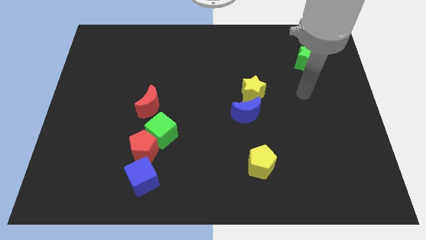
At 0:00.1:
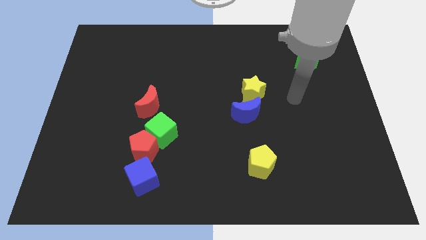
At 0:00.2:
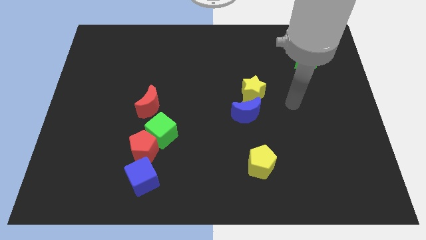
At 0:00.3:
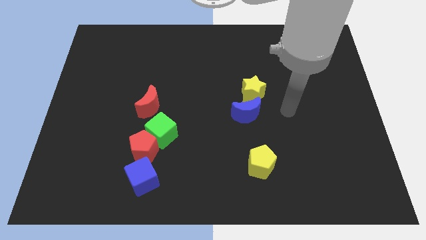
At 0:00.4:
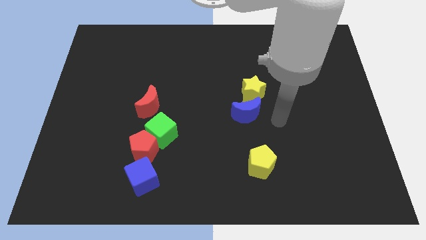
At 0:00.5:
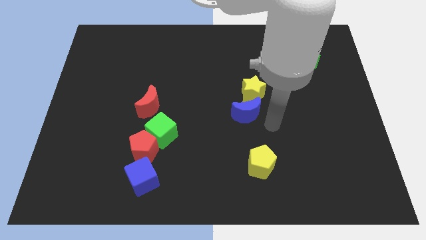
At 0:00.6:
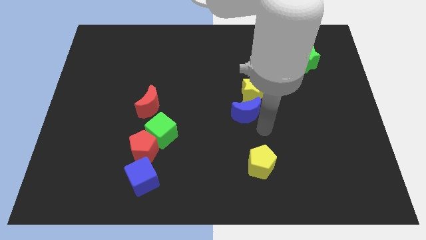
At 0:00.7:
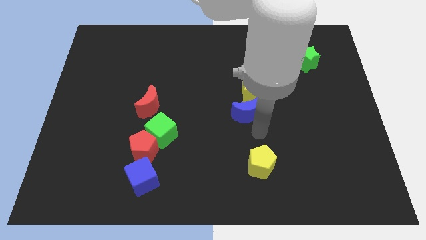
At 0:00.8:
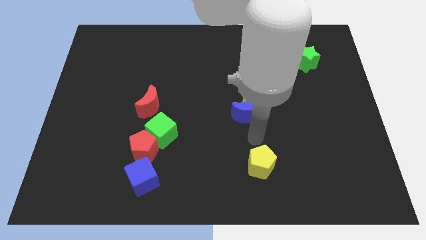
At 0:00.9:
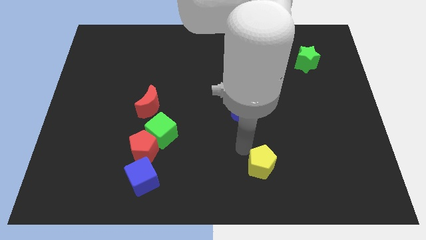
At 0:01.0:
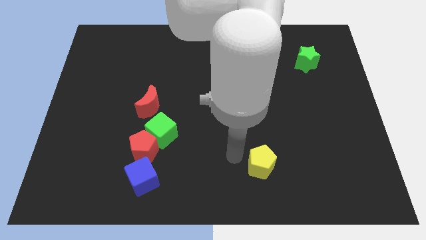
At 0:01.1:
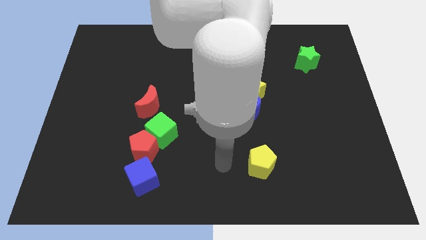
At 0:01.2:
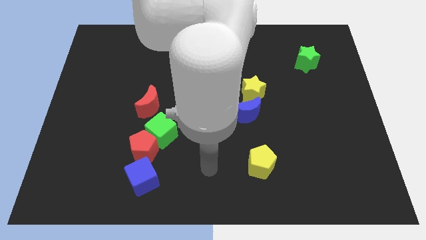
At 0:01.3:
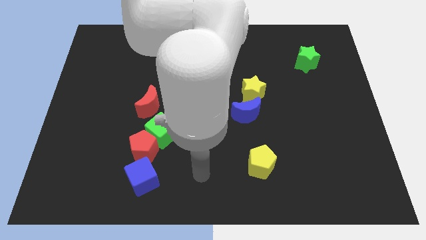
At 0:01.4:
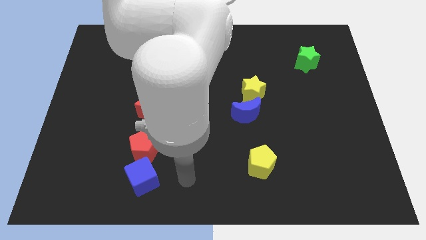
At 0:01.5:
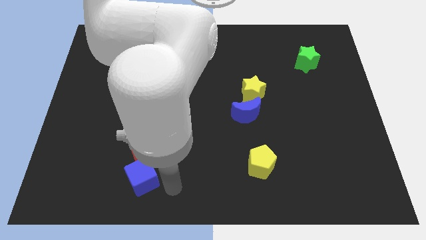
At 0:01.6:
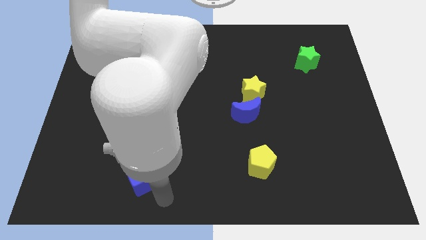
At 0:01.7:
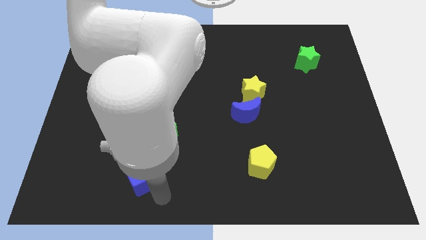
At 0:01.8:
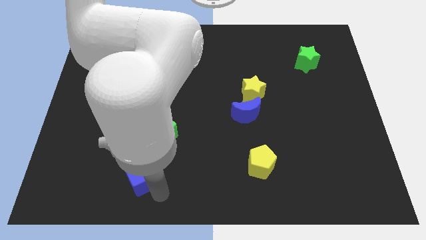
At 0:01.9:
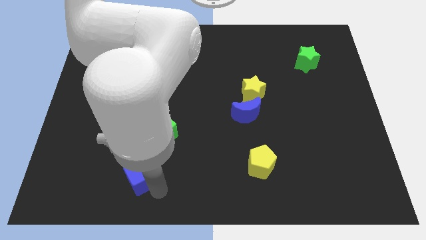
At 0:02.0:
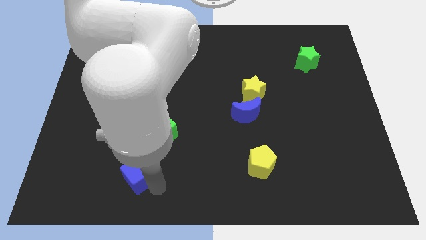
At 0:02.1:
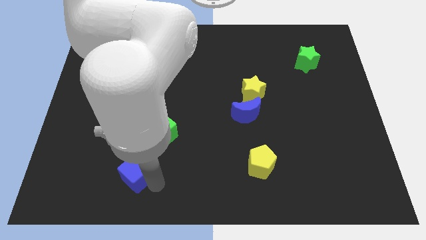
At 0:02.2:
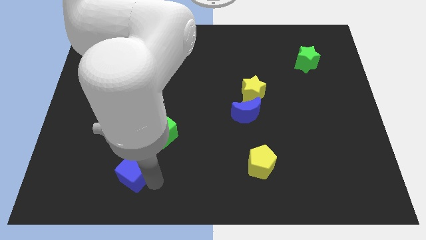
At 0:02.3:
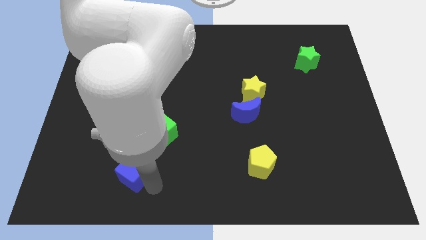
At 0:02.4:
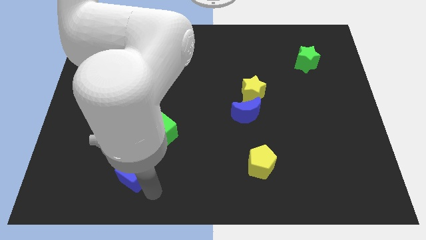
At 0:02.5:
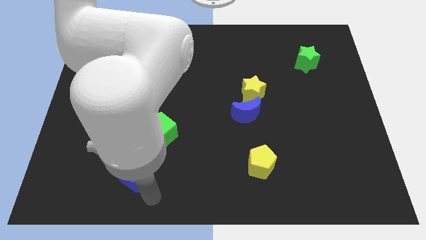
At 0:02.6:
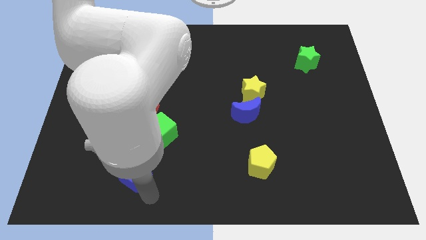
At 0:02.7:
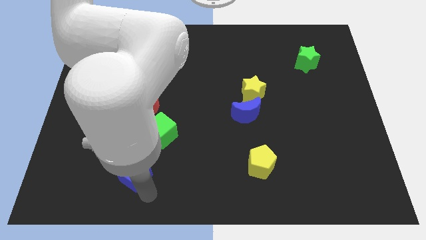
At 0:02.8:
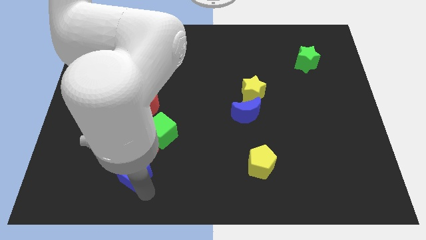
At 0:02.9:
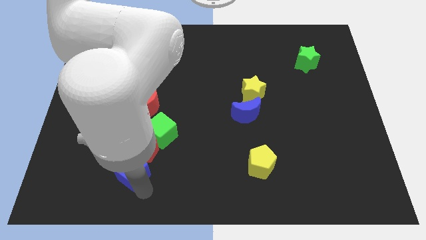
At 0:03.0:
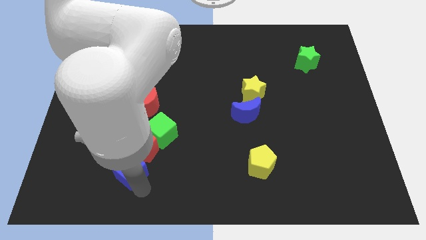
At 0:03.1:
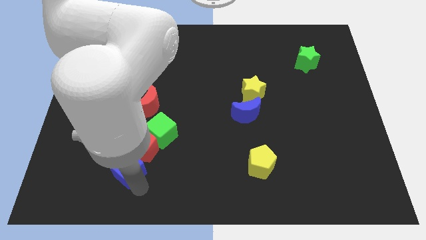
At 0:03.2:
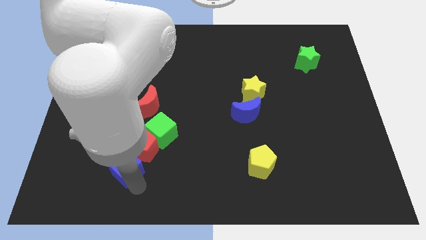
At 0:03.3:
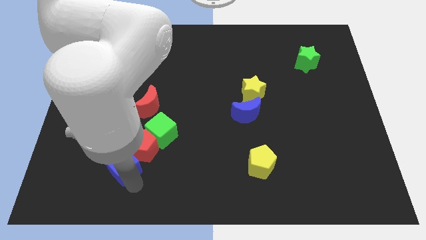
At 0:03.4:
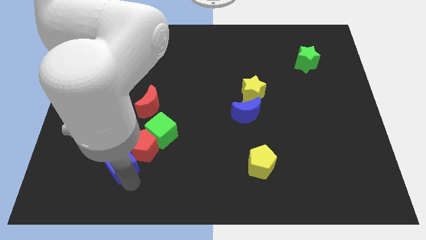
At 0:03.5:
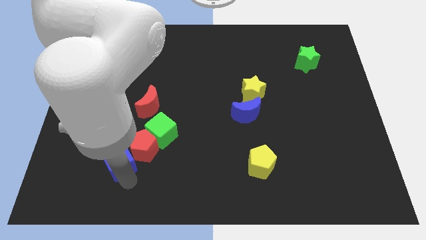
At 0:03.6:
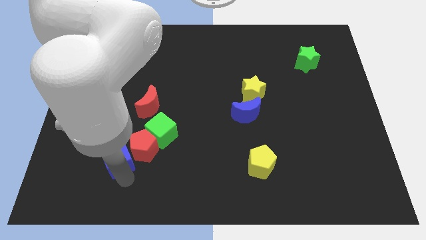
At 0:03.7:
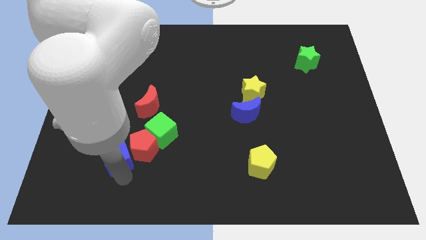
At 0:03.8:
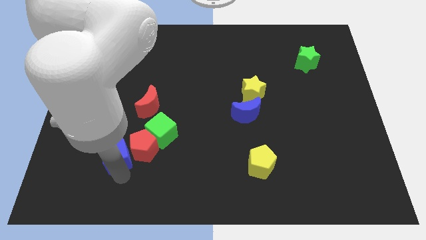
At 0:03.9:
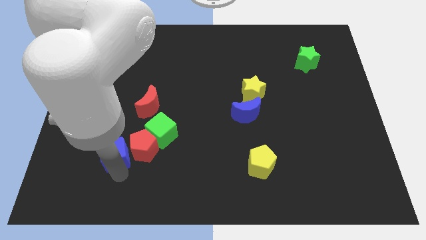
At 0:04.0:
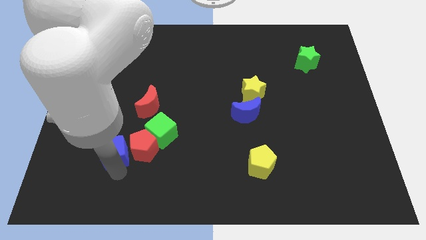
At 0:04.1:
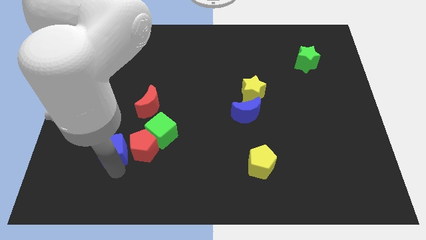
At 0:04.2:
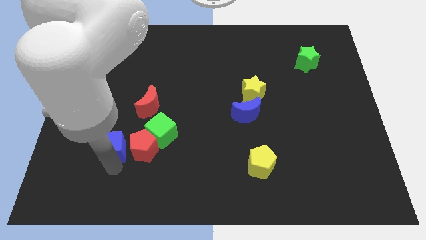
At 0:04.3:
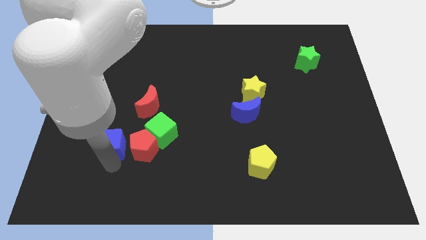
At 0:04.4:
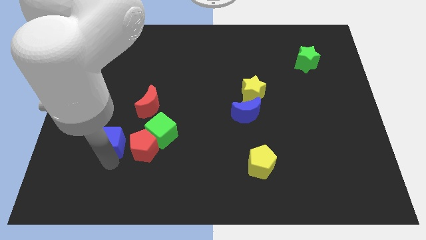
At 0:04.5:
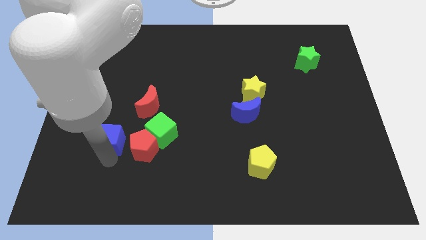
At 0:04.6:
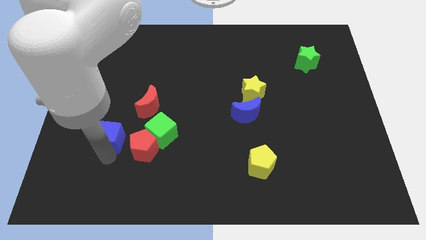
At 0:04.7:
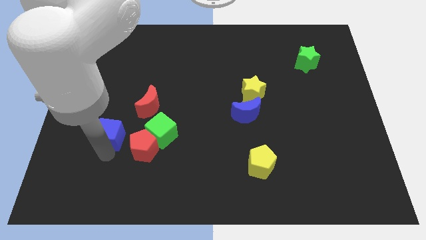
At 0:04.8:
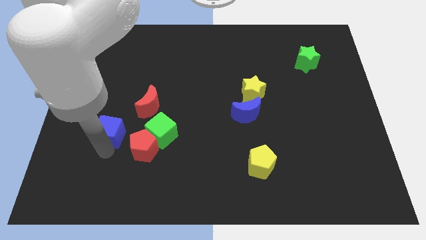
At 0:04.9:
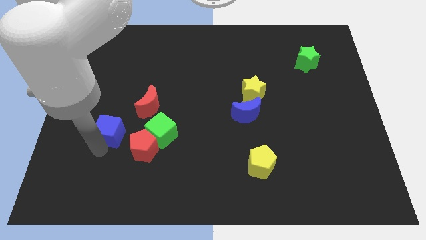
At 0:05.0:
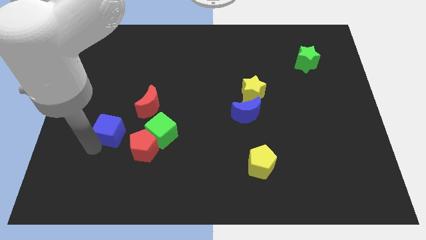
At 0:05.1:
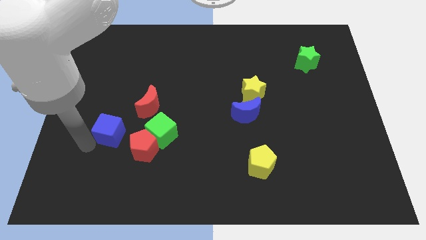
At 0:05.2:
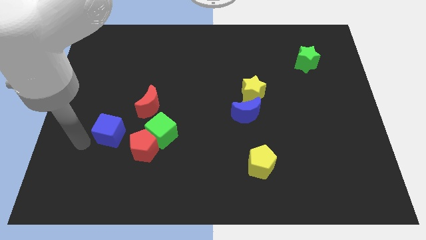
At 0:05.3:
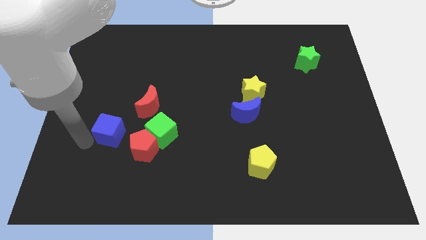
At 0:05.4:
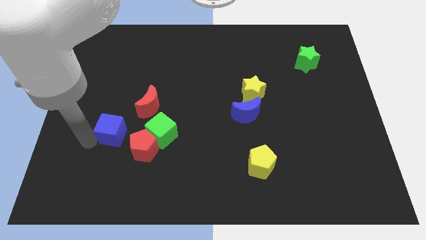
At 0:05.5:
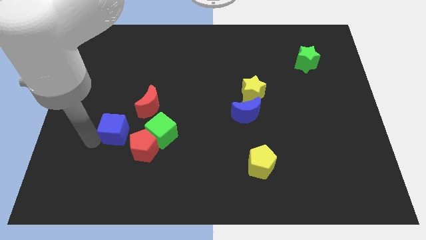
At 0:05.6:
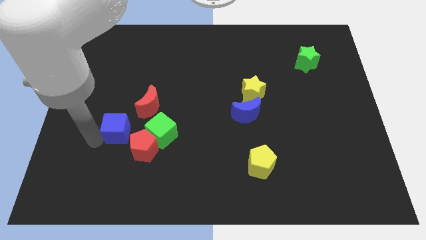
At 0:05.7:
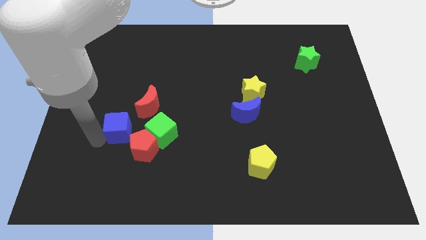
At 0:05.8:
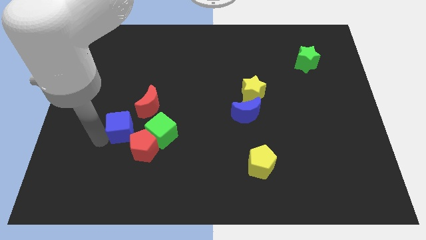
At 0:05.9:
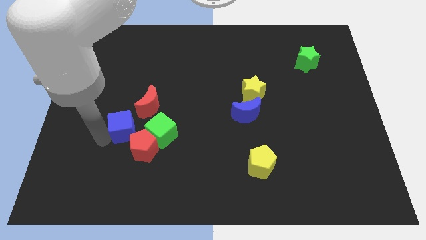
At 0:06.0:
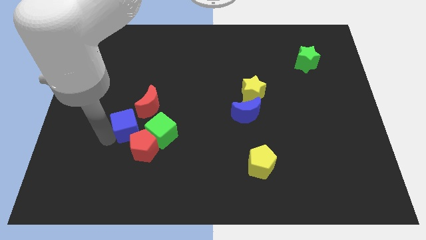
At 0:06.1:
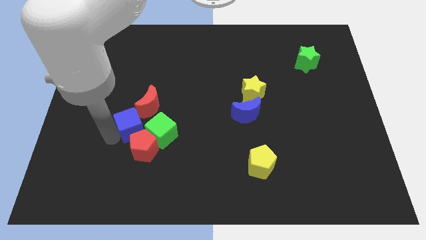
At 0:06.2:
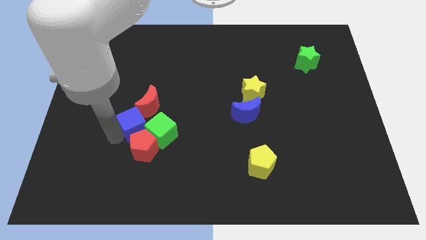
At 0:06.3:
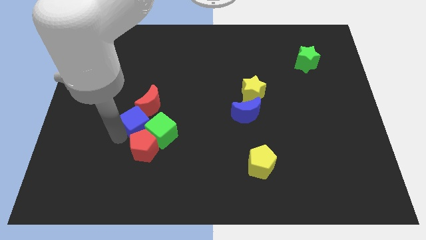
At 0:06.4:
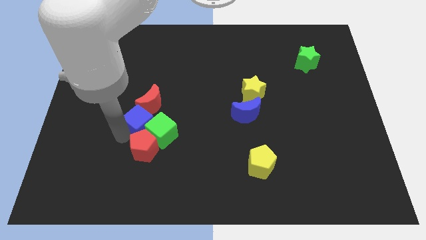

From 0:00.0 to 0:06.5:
slide the blue cube close to the red moon

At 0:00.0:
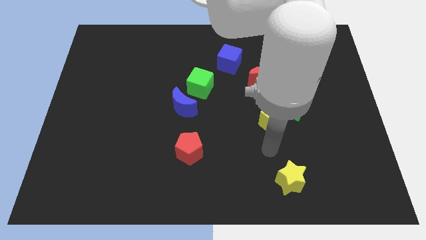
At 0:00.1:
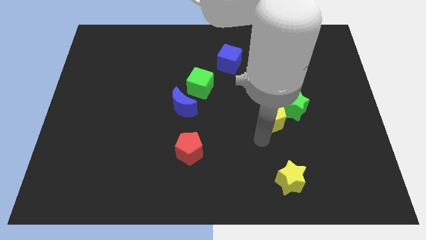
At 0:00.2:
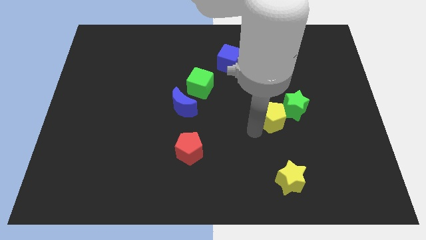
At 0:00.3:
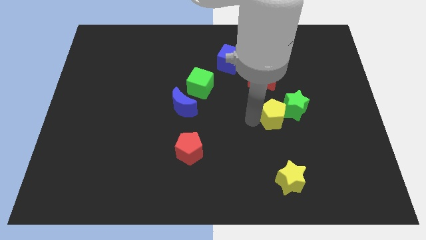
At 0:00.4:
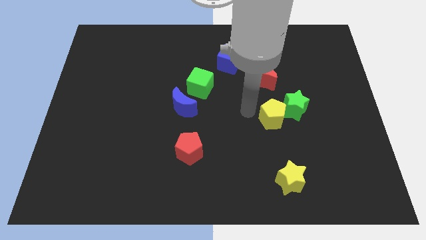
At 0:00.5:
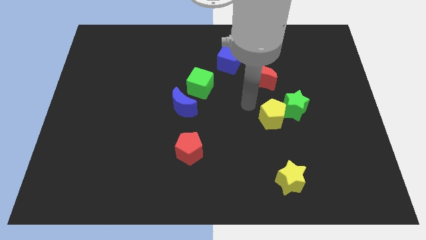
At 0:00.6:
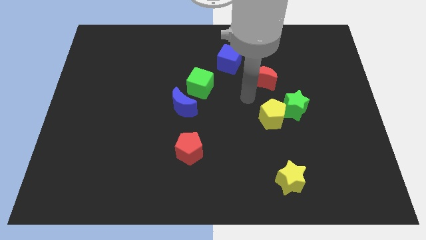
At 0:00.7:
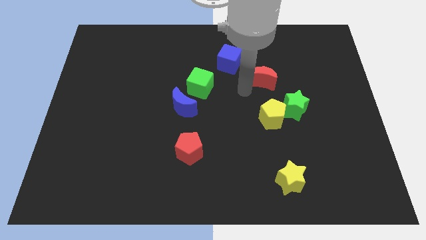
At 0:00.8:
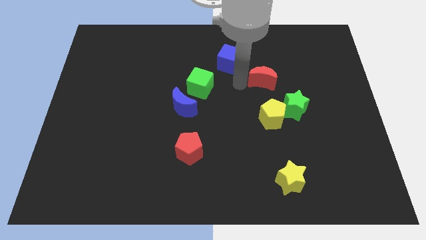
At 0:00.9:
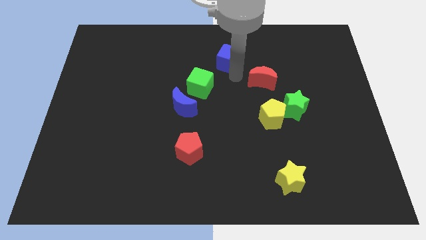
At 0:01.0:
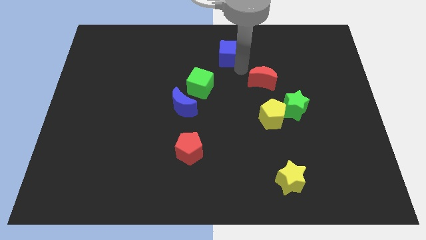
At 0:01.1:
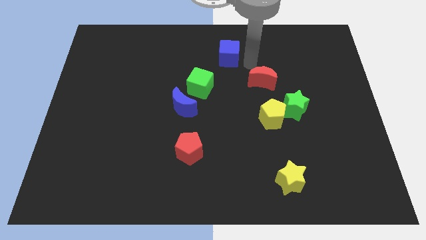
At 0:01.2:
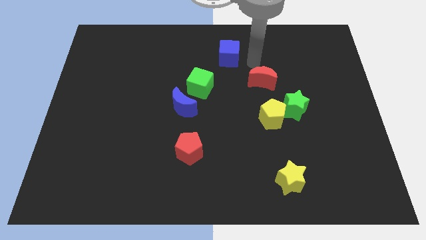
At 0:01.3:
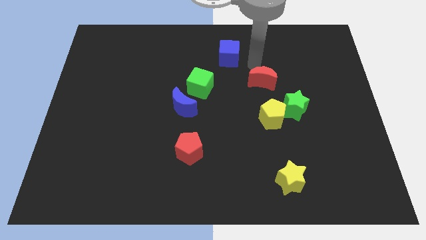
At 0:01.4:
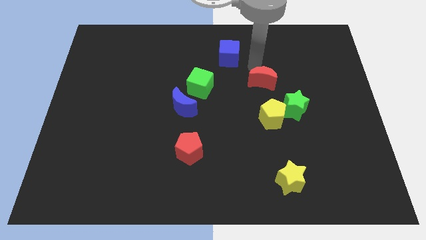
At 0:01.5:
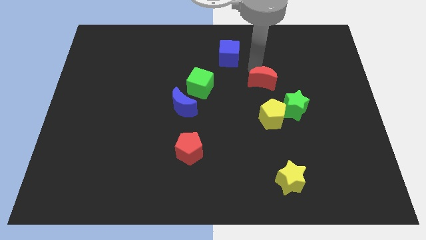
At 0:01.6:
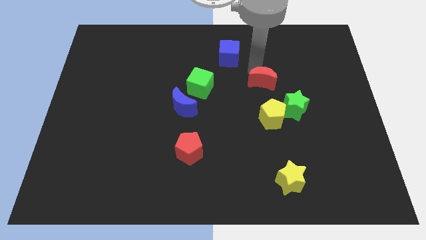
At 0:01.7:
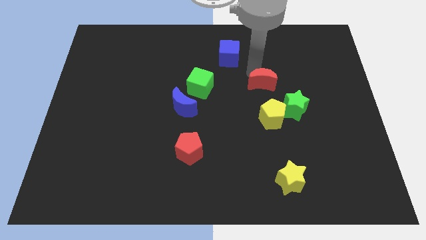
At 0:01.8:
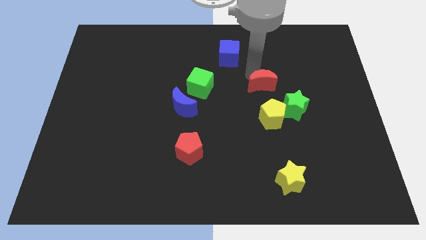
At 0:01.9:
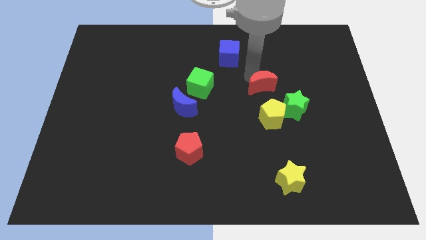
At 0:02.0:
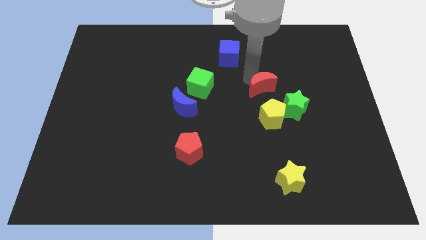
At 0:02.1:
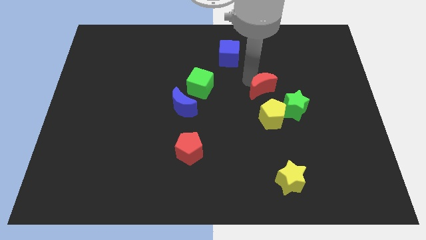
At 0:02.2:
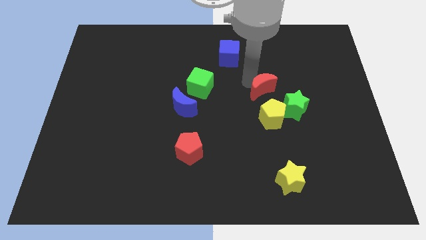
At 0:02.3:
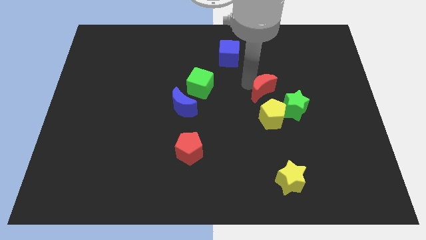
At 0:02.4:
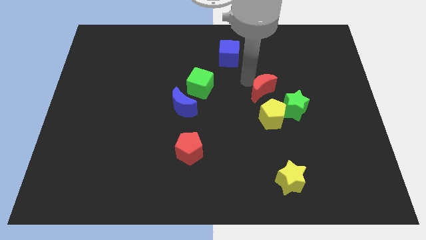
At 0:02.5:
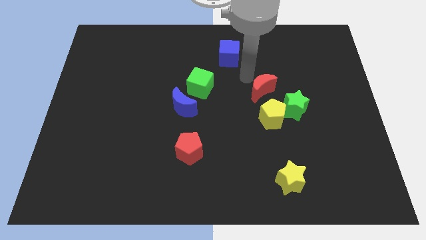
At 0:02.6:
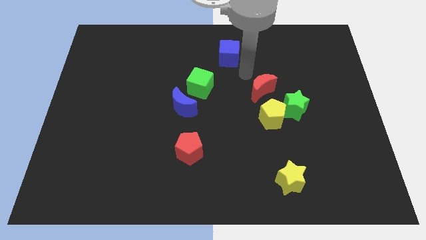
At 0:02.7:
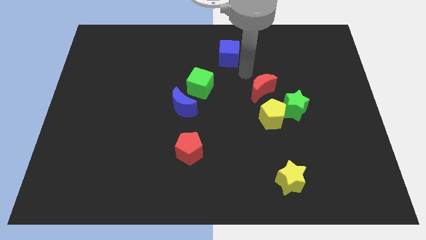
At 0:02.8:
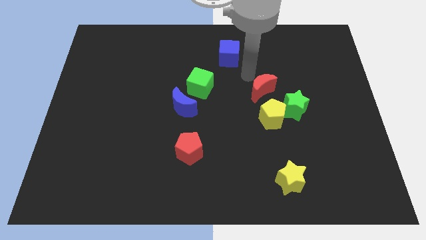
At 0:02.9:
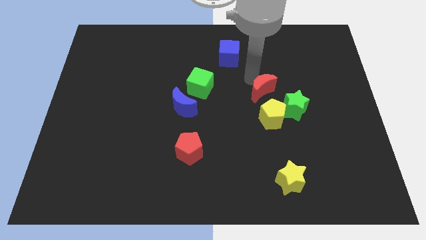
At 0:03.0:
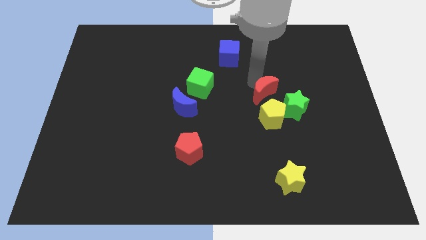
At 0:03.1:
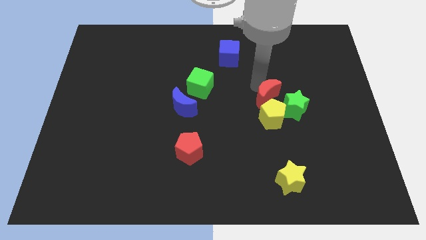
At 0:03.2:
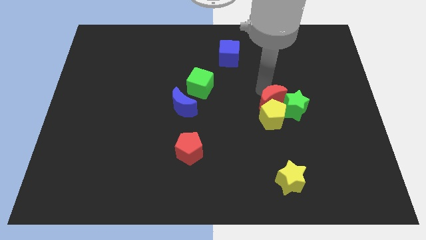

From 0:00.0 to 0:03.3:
move the red moon towards the yellow pentagon
